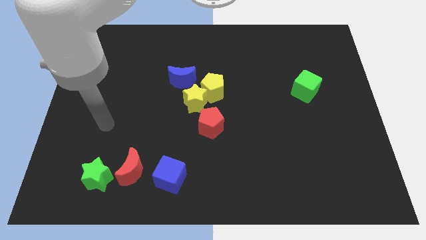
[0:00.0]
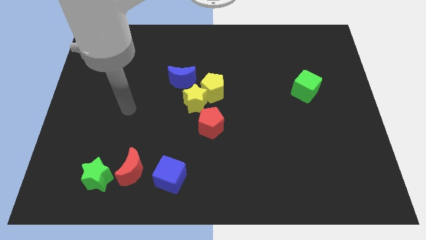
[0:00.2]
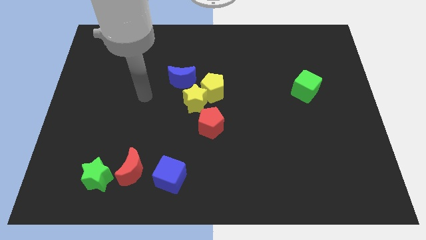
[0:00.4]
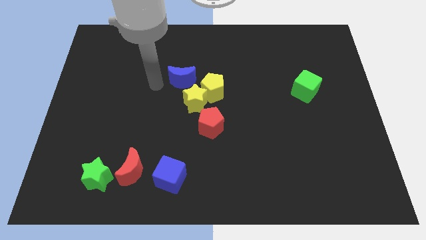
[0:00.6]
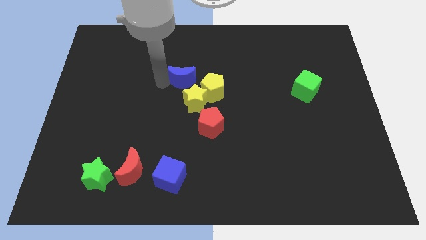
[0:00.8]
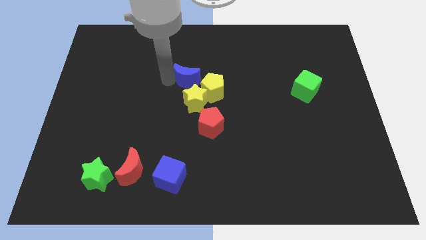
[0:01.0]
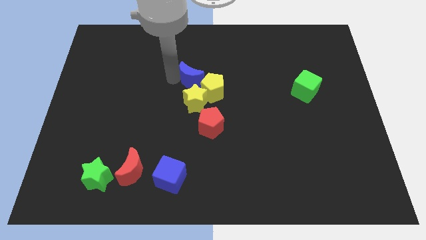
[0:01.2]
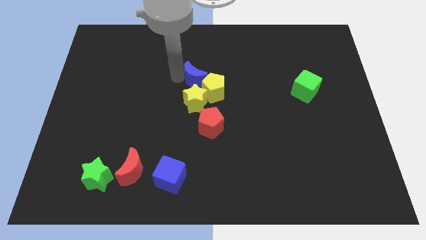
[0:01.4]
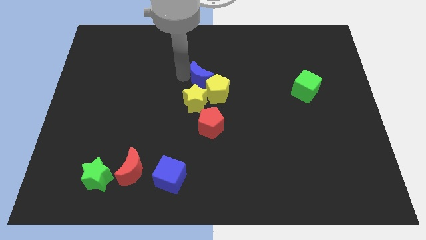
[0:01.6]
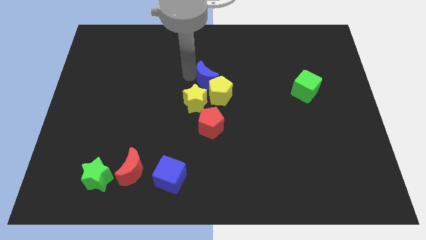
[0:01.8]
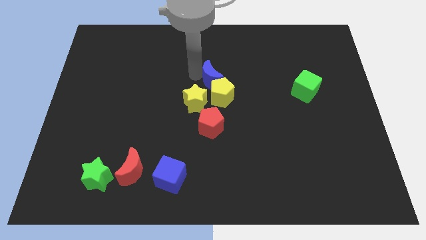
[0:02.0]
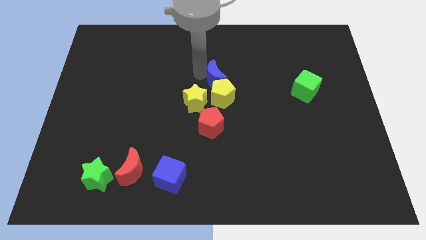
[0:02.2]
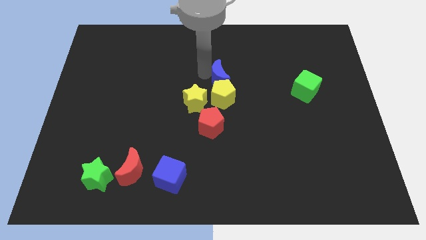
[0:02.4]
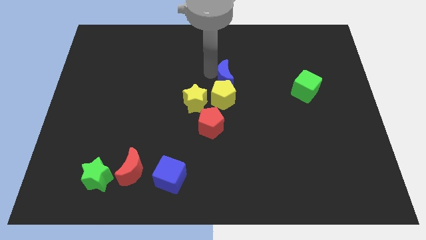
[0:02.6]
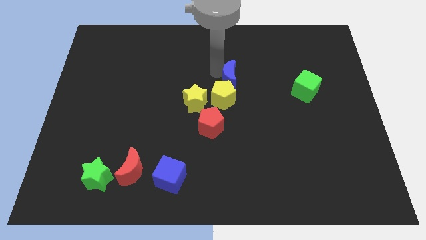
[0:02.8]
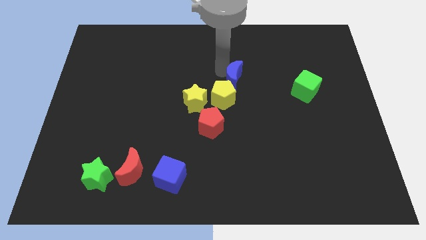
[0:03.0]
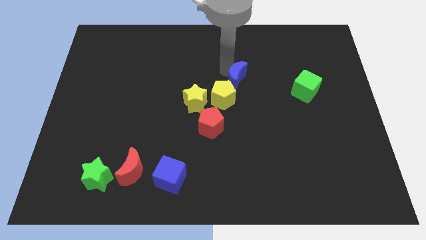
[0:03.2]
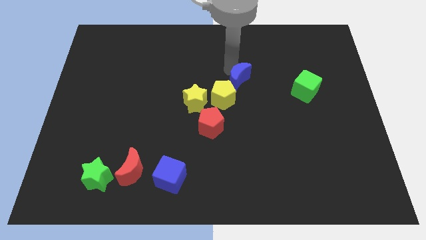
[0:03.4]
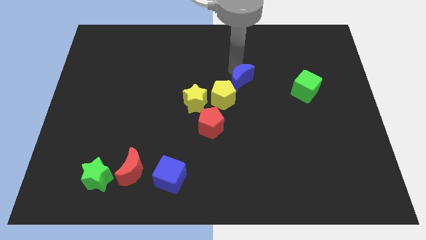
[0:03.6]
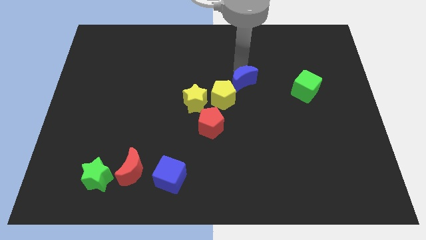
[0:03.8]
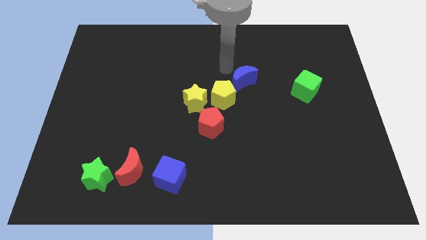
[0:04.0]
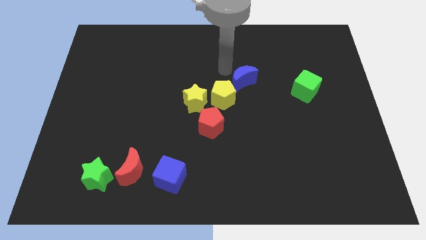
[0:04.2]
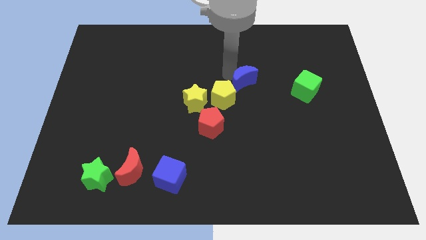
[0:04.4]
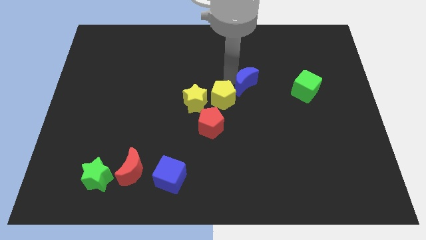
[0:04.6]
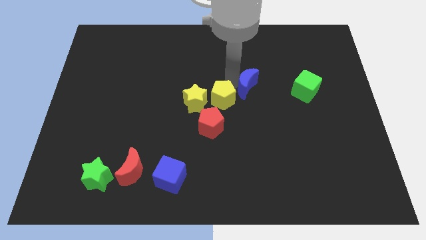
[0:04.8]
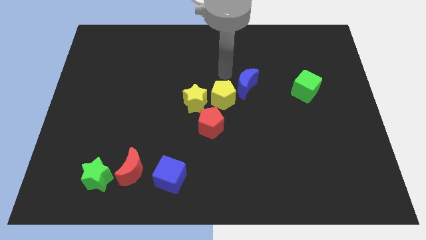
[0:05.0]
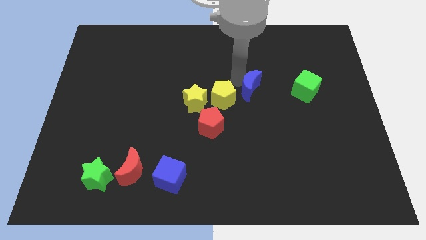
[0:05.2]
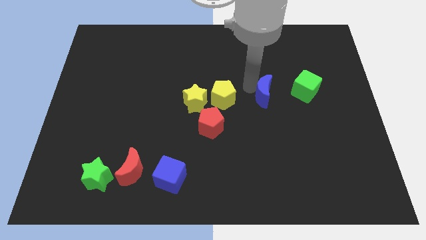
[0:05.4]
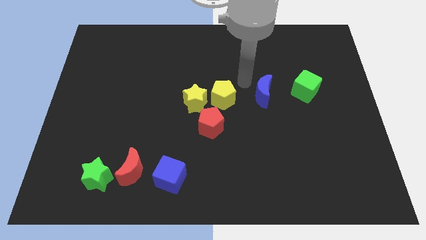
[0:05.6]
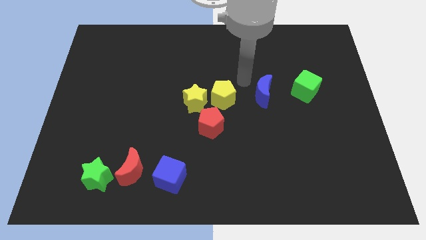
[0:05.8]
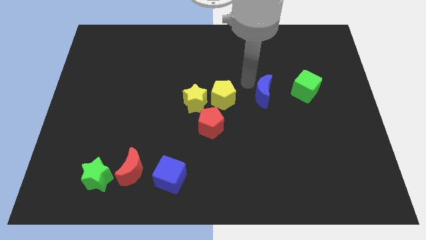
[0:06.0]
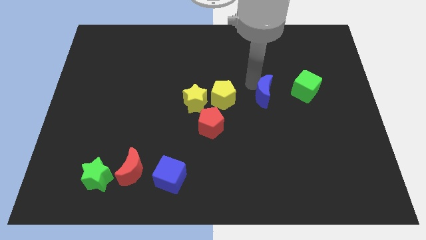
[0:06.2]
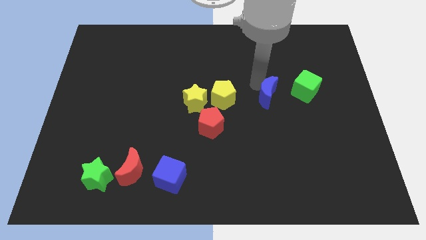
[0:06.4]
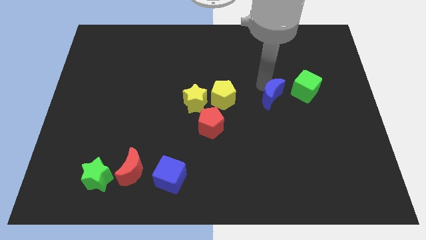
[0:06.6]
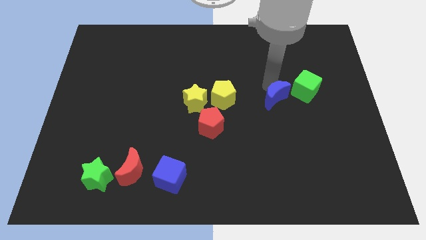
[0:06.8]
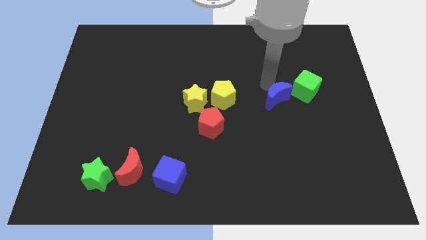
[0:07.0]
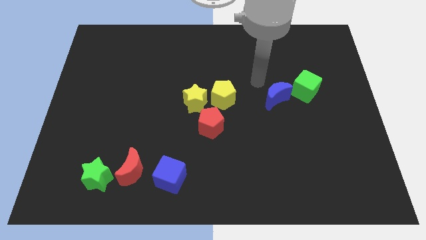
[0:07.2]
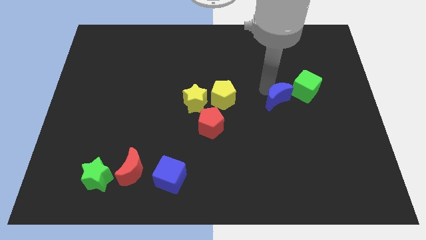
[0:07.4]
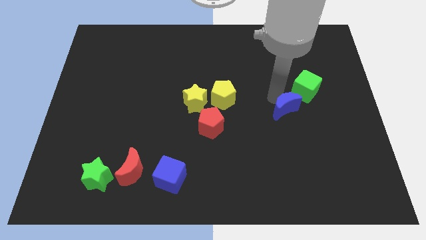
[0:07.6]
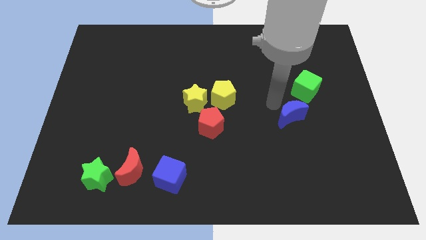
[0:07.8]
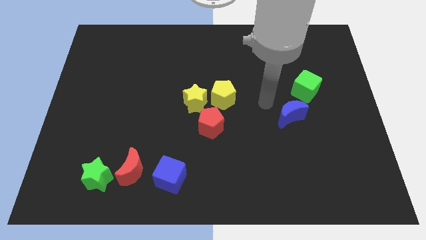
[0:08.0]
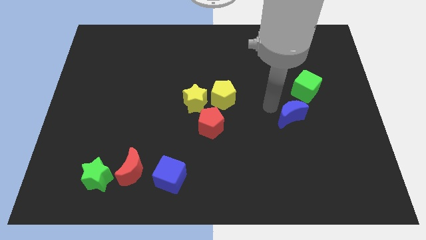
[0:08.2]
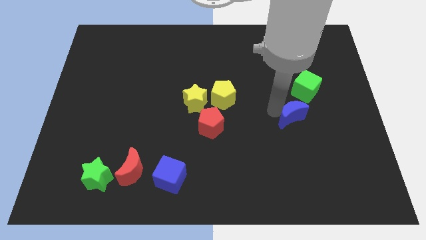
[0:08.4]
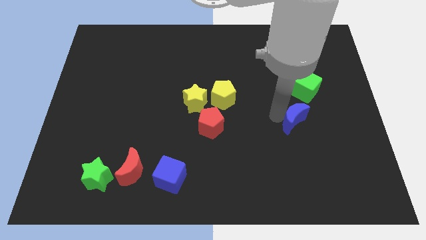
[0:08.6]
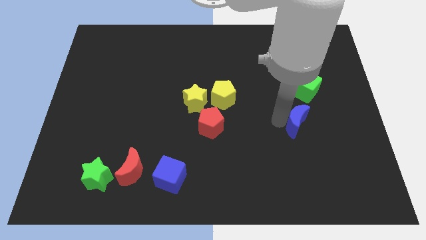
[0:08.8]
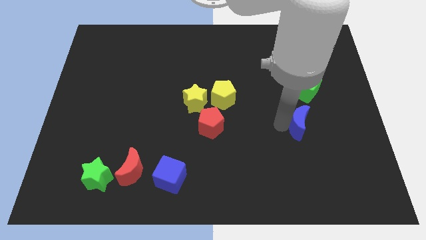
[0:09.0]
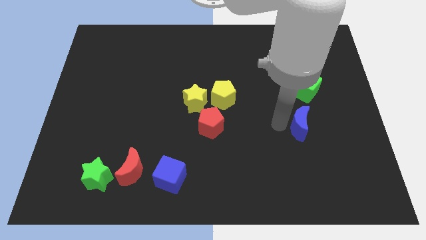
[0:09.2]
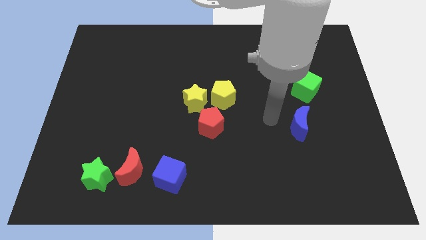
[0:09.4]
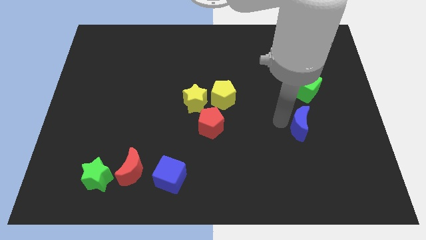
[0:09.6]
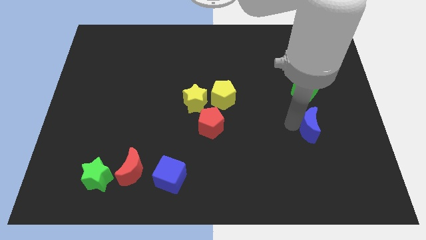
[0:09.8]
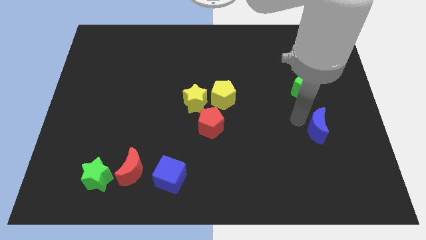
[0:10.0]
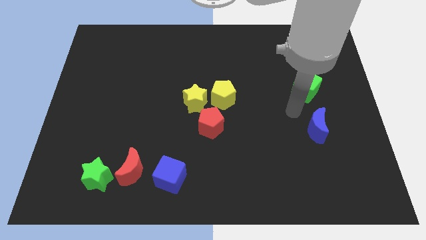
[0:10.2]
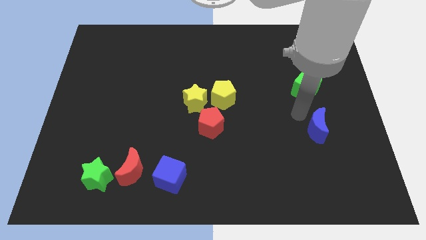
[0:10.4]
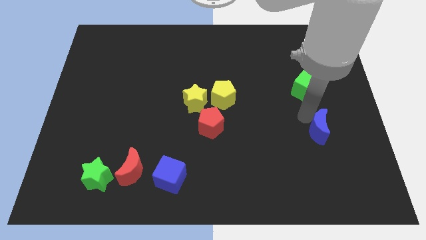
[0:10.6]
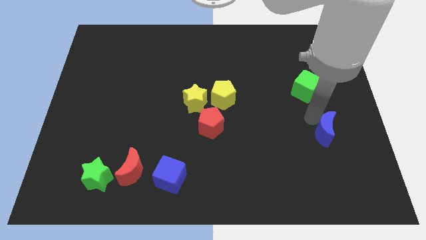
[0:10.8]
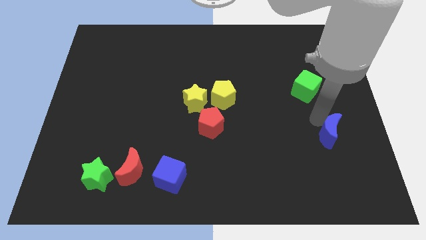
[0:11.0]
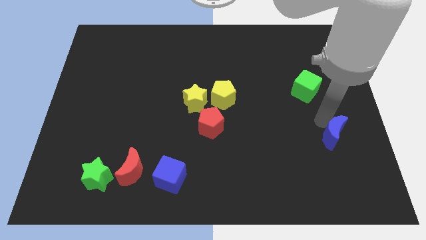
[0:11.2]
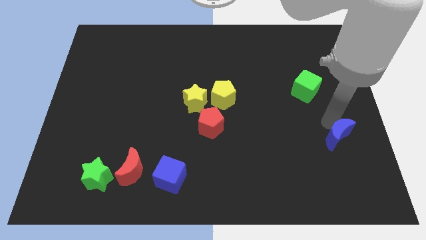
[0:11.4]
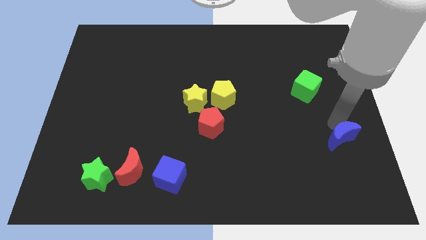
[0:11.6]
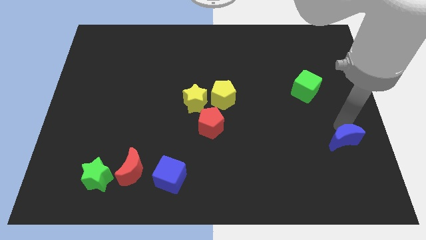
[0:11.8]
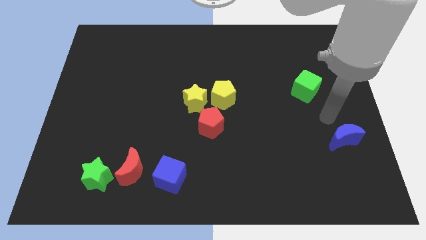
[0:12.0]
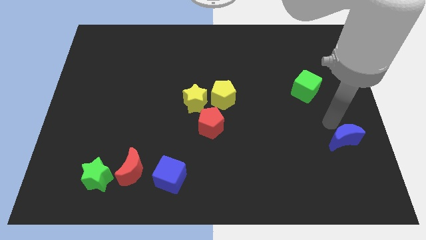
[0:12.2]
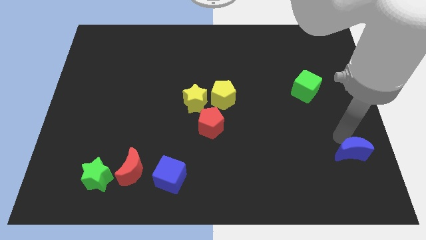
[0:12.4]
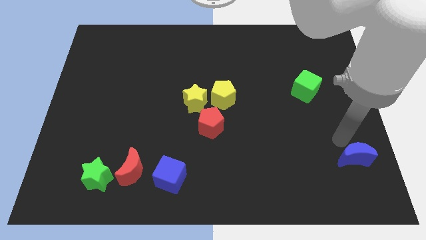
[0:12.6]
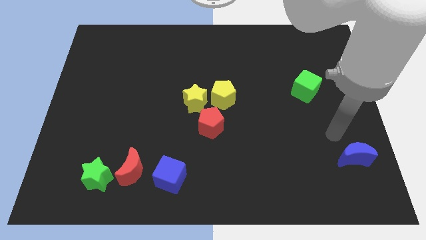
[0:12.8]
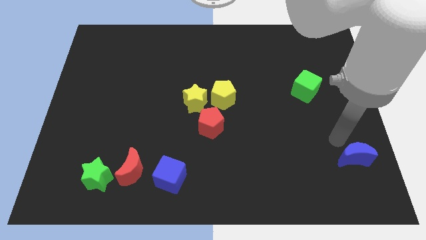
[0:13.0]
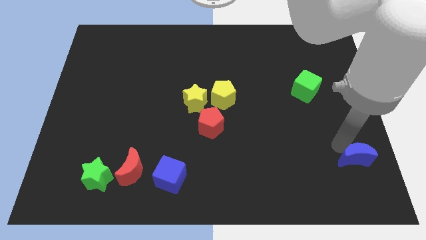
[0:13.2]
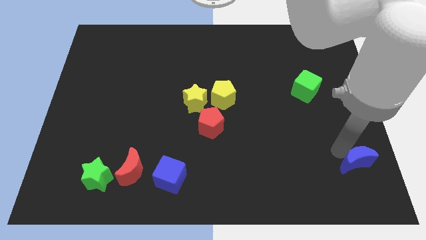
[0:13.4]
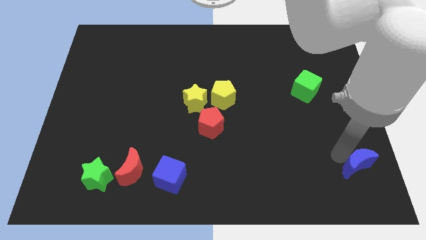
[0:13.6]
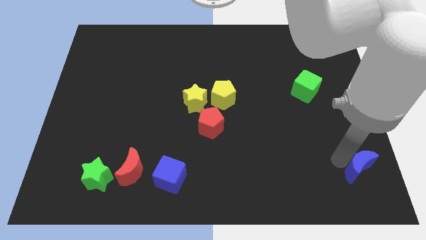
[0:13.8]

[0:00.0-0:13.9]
slide the blue moon to the bottom right of the board
